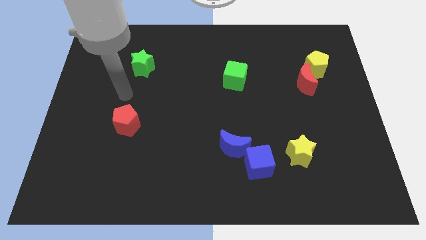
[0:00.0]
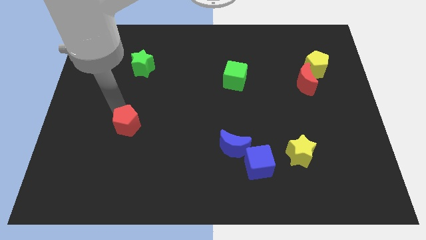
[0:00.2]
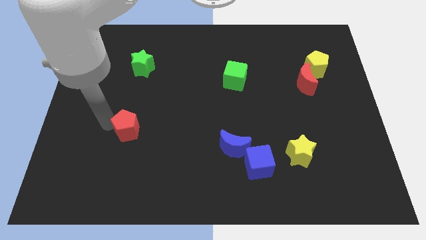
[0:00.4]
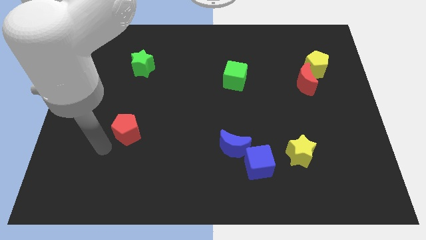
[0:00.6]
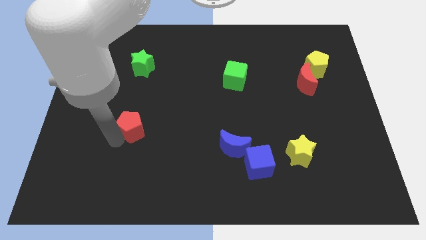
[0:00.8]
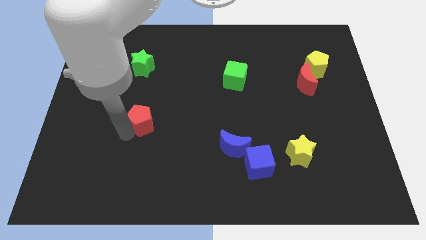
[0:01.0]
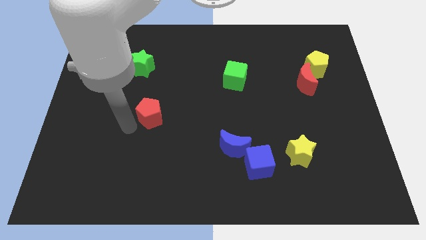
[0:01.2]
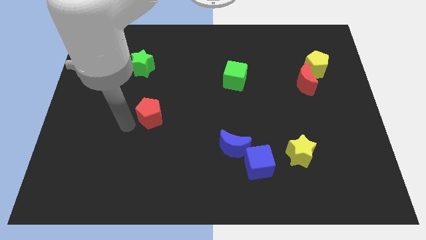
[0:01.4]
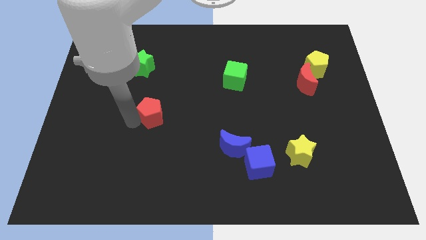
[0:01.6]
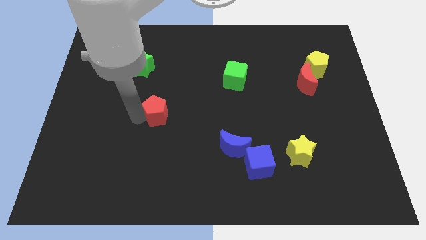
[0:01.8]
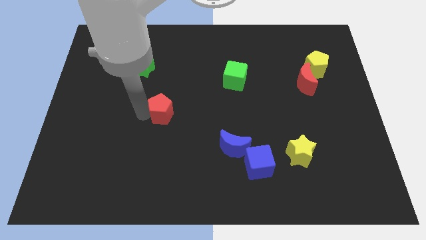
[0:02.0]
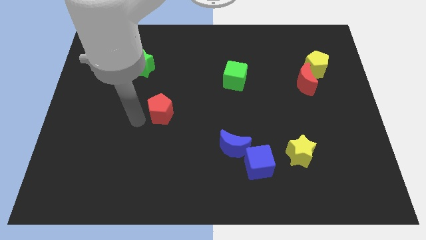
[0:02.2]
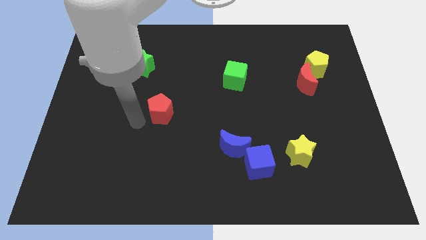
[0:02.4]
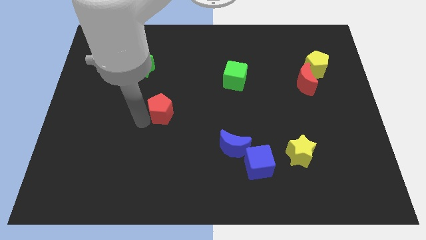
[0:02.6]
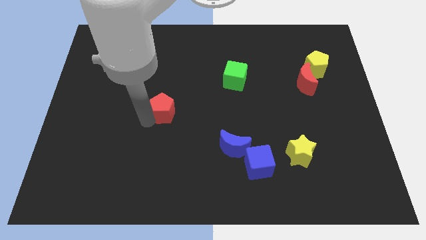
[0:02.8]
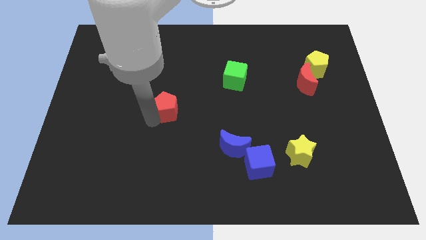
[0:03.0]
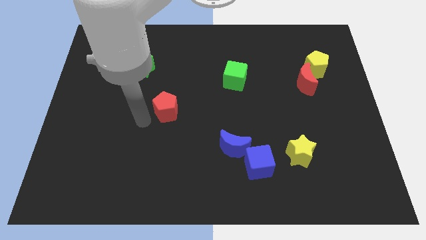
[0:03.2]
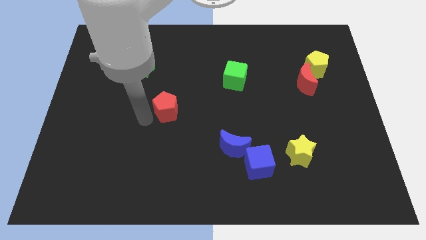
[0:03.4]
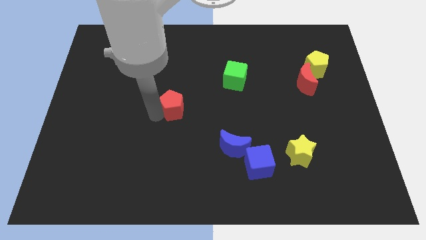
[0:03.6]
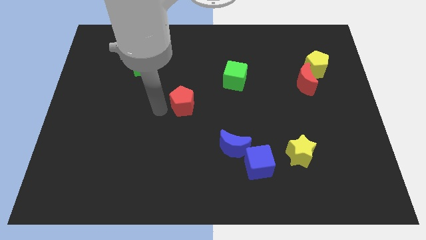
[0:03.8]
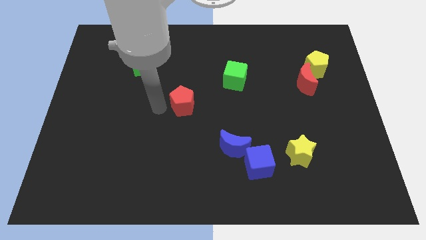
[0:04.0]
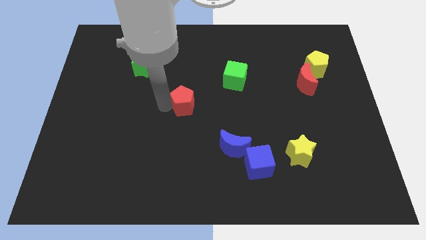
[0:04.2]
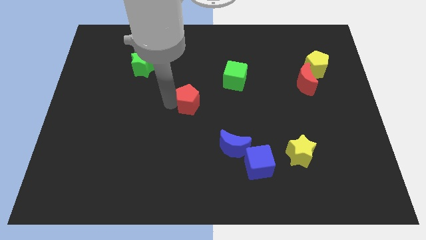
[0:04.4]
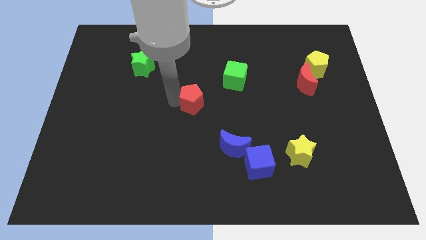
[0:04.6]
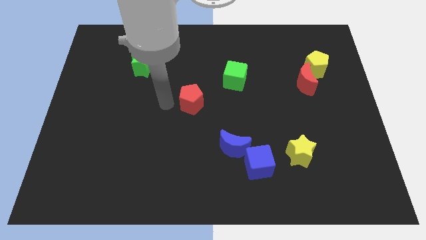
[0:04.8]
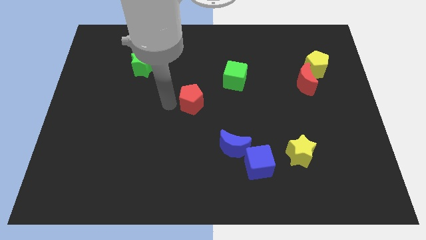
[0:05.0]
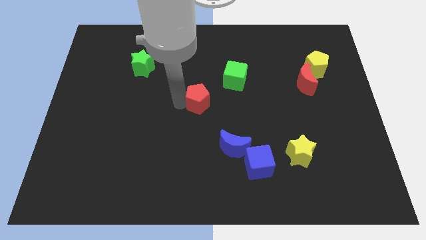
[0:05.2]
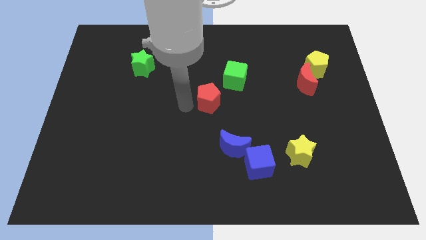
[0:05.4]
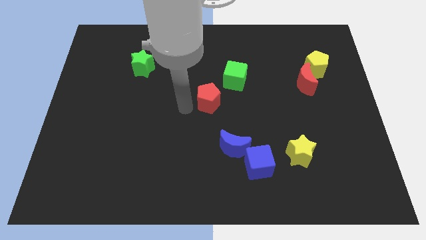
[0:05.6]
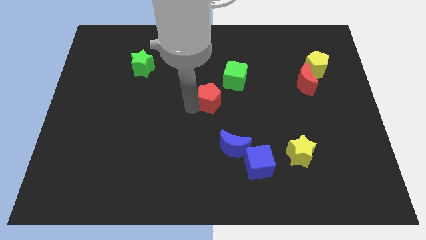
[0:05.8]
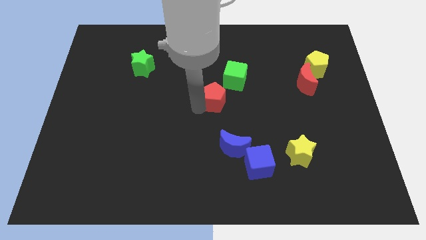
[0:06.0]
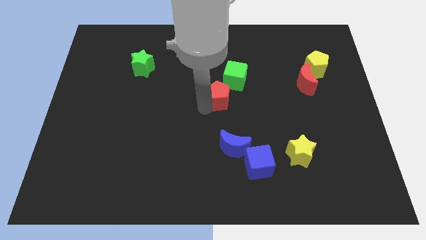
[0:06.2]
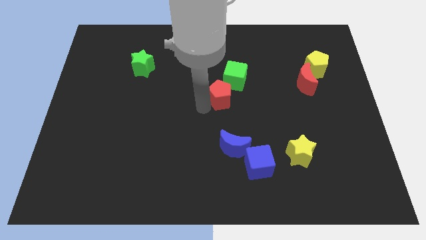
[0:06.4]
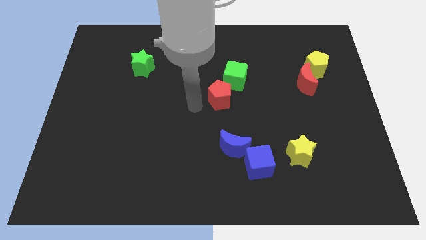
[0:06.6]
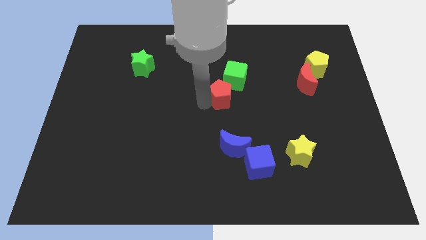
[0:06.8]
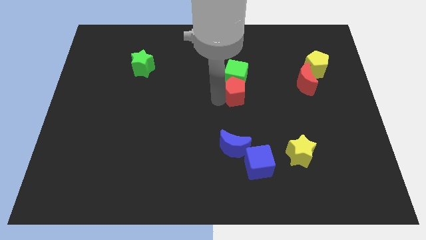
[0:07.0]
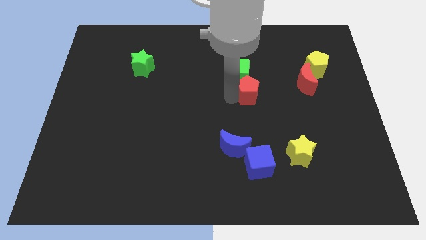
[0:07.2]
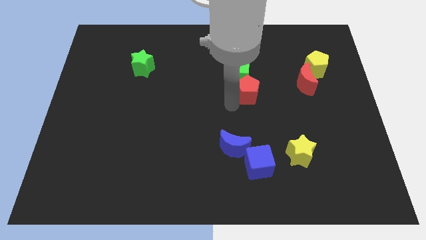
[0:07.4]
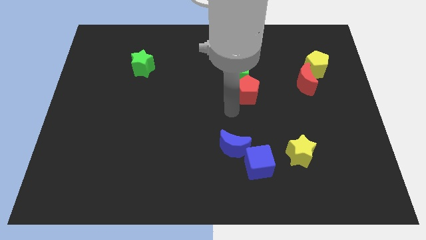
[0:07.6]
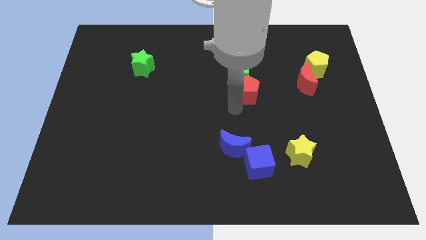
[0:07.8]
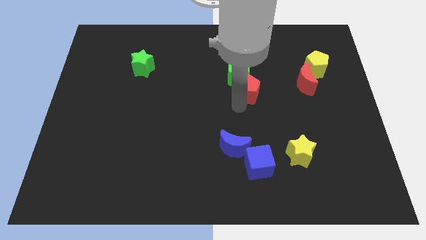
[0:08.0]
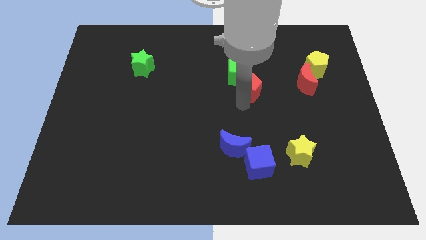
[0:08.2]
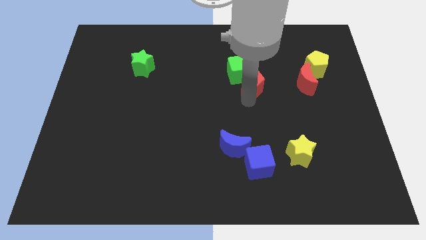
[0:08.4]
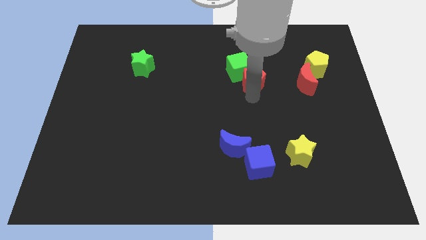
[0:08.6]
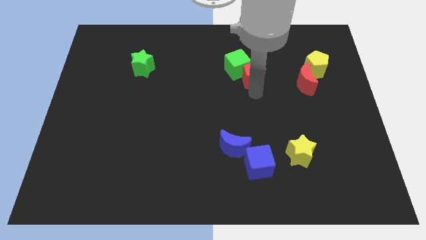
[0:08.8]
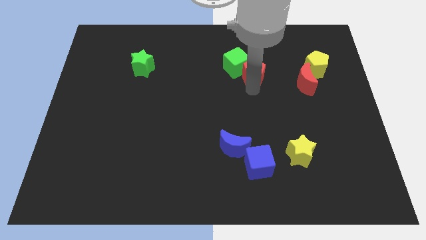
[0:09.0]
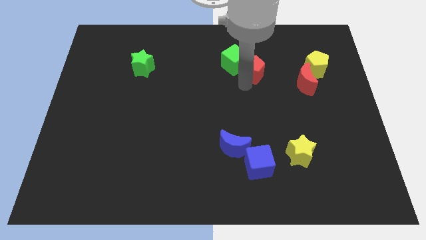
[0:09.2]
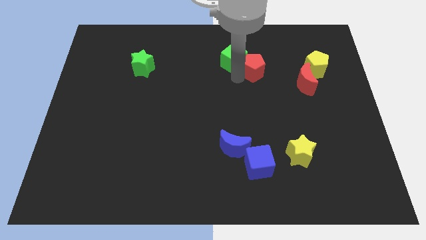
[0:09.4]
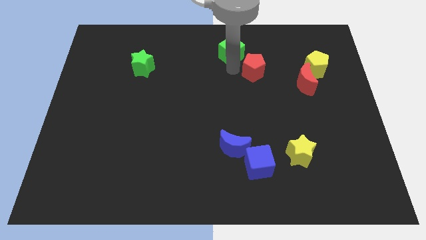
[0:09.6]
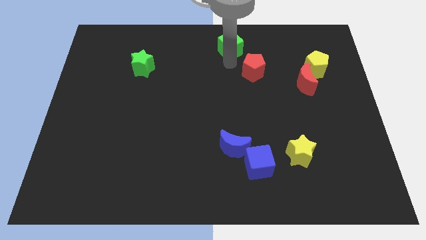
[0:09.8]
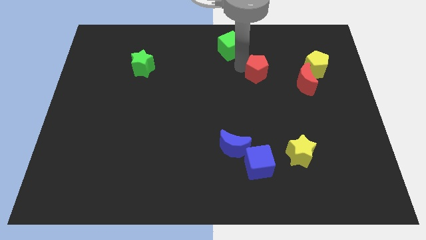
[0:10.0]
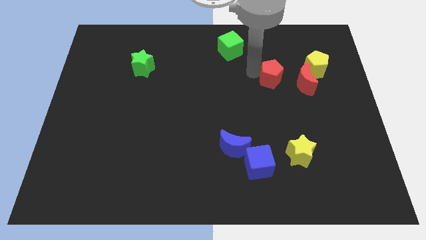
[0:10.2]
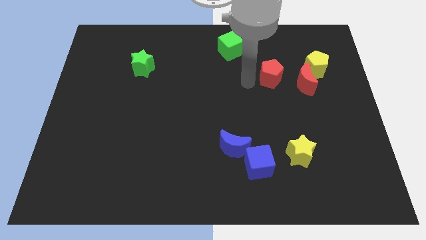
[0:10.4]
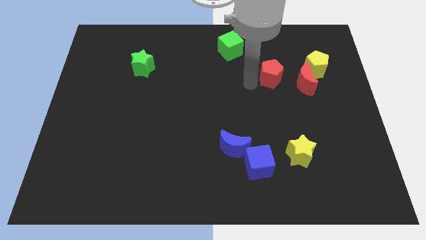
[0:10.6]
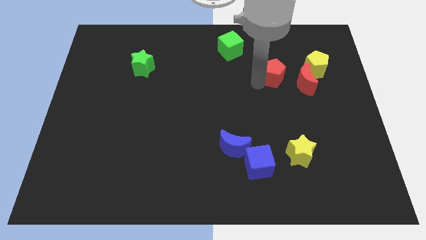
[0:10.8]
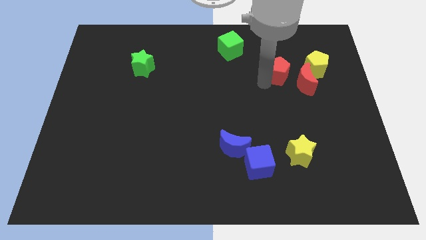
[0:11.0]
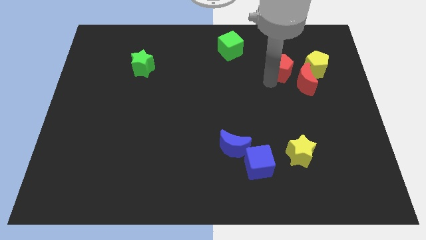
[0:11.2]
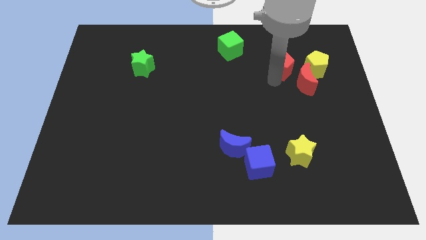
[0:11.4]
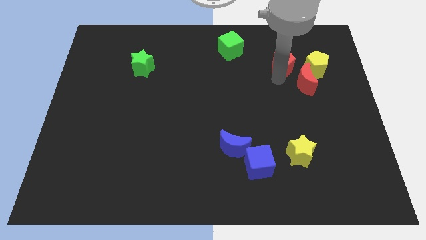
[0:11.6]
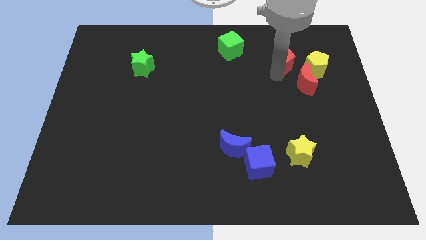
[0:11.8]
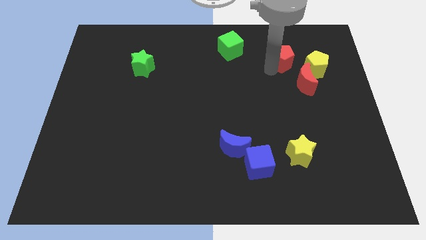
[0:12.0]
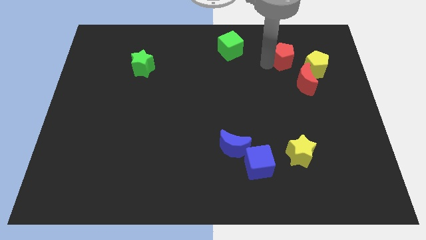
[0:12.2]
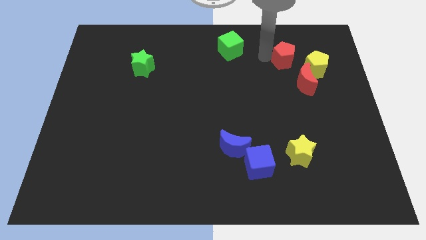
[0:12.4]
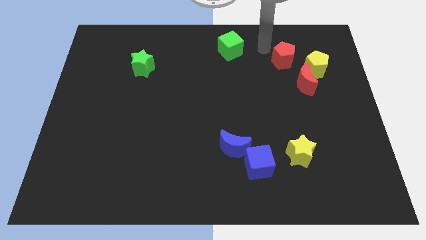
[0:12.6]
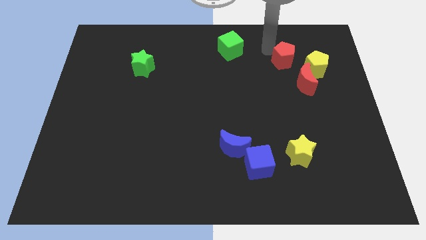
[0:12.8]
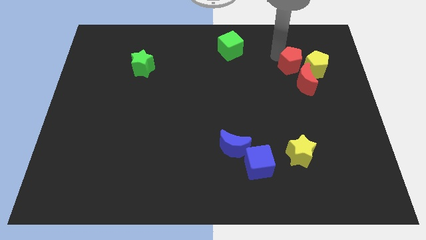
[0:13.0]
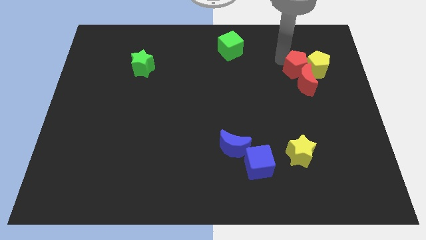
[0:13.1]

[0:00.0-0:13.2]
move the red pentagon next to the yellow pentagon

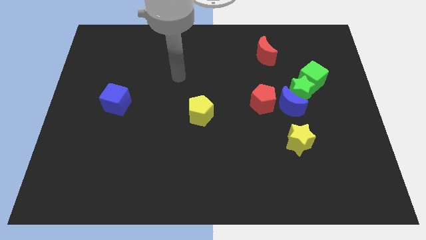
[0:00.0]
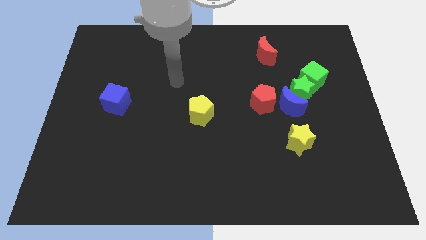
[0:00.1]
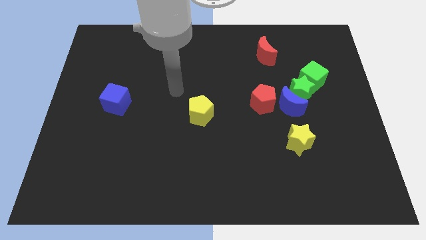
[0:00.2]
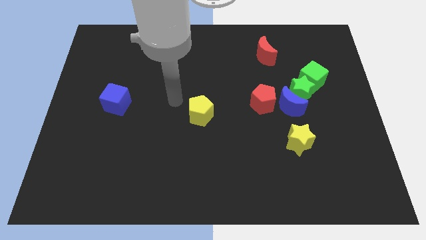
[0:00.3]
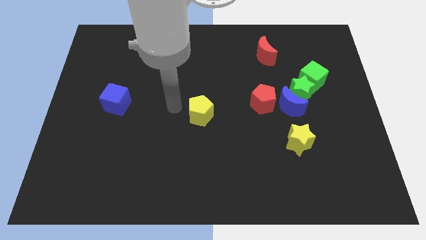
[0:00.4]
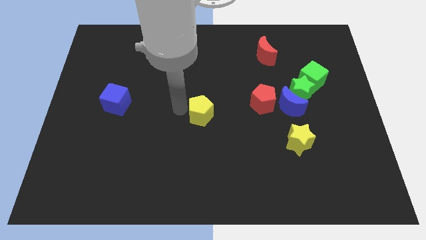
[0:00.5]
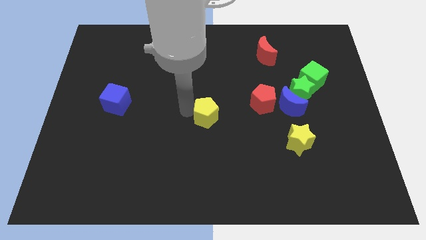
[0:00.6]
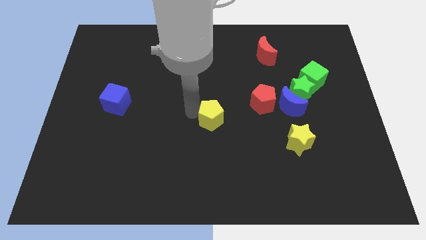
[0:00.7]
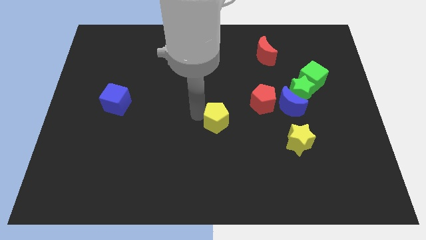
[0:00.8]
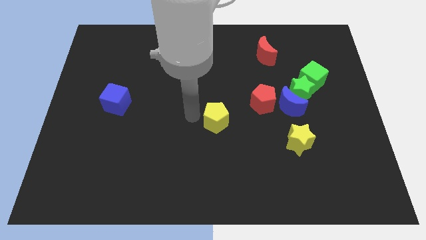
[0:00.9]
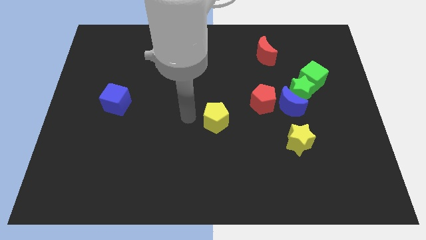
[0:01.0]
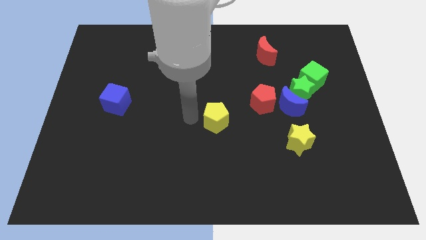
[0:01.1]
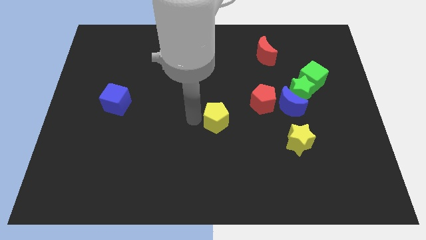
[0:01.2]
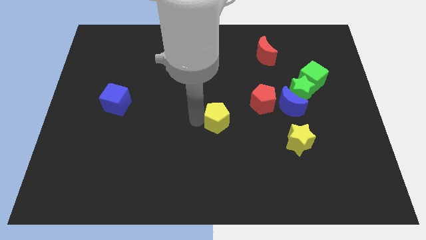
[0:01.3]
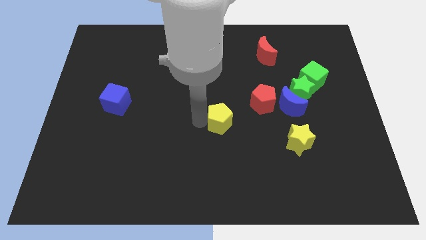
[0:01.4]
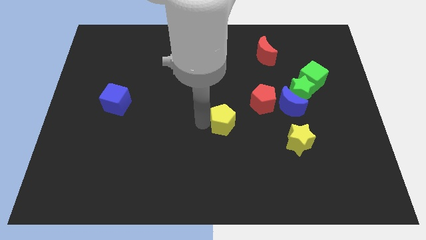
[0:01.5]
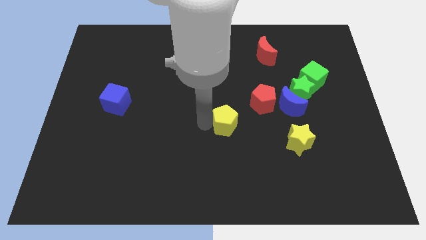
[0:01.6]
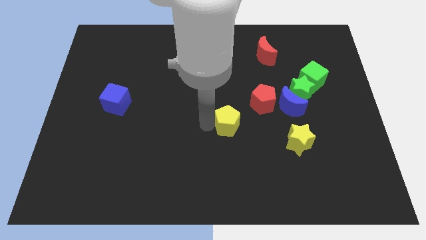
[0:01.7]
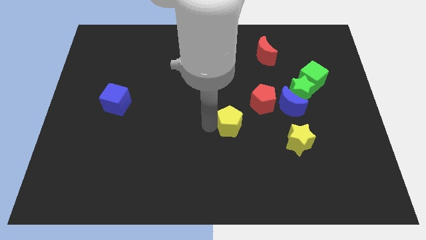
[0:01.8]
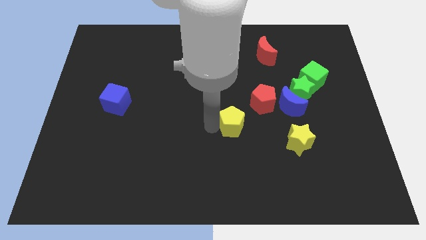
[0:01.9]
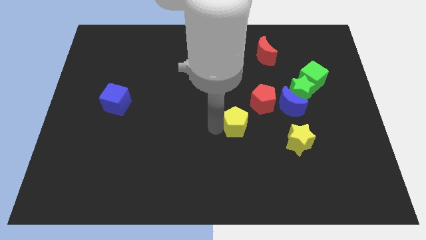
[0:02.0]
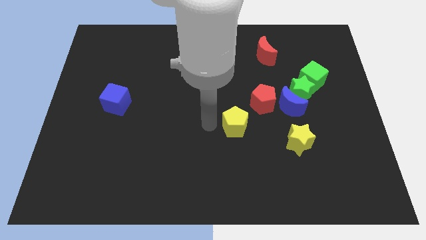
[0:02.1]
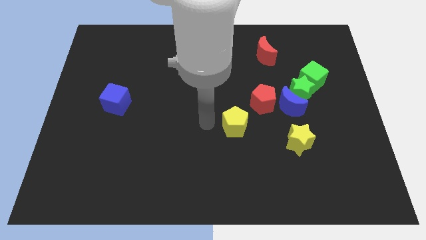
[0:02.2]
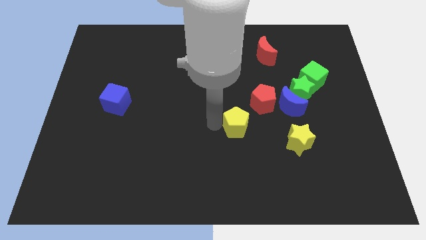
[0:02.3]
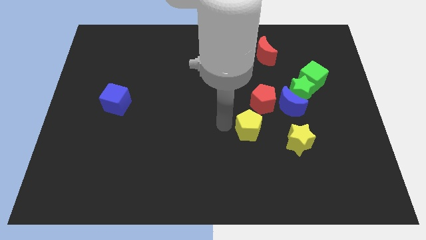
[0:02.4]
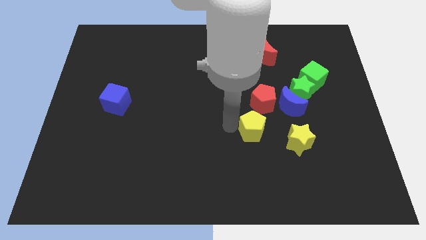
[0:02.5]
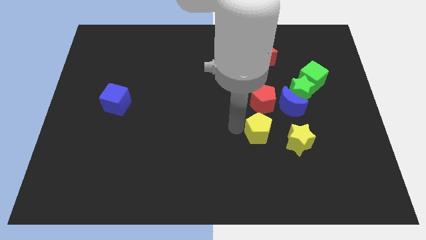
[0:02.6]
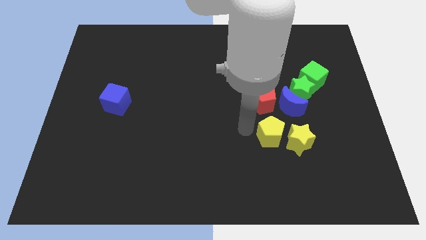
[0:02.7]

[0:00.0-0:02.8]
push the yellow pentagon towards the yellow star
